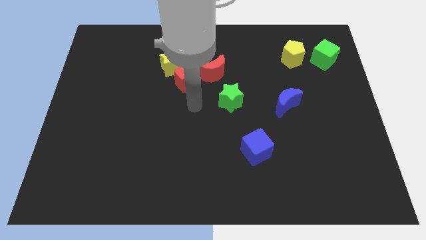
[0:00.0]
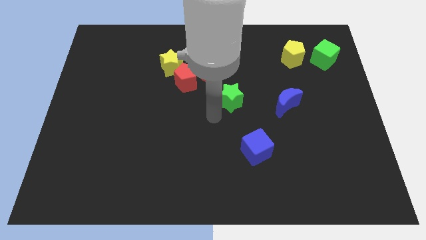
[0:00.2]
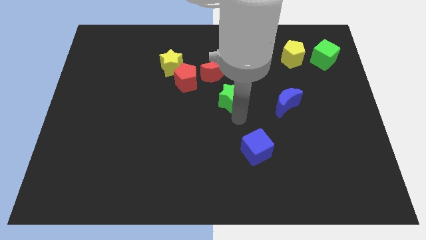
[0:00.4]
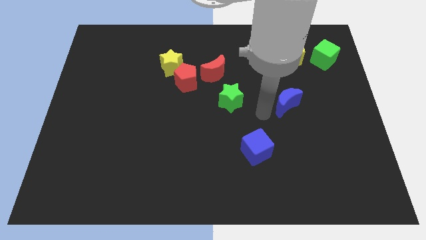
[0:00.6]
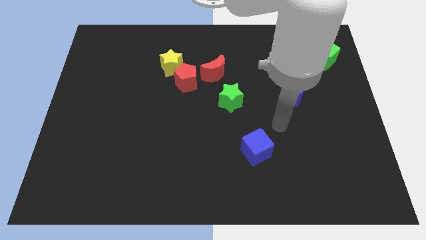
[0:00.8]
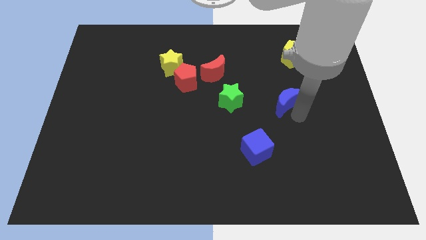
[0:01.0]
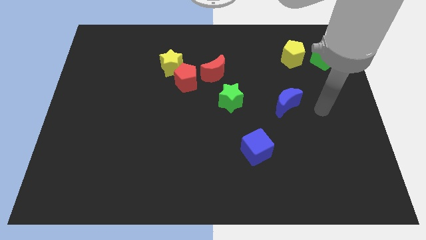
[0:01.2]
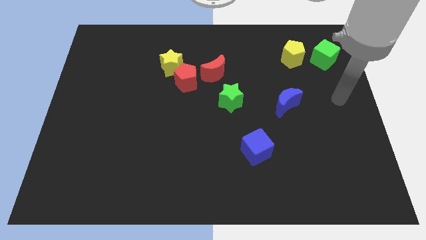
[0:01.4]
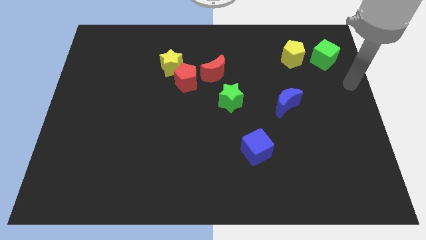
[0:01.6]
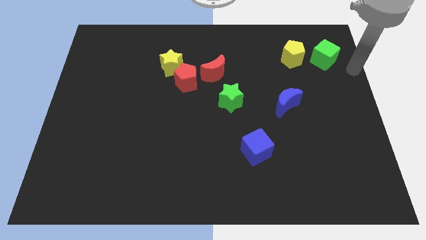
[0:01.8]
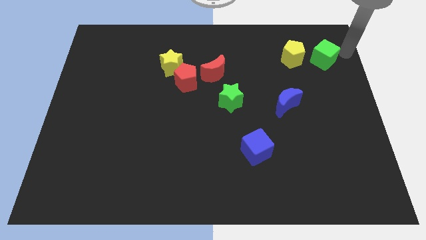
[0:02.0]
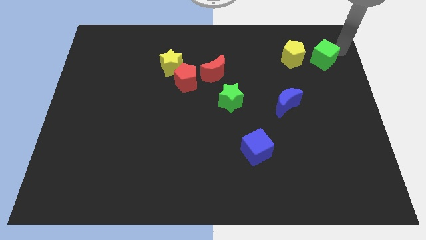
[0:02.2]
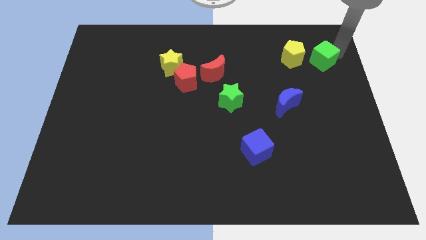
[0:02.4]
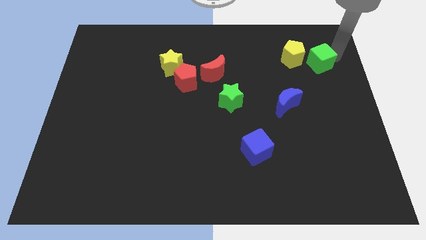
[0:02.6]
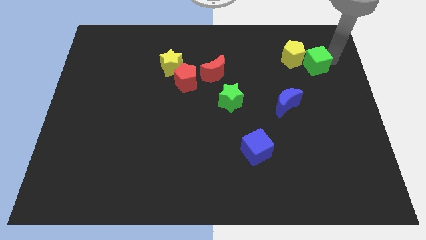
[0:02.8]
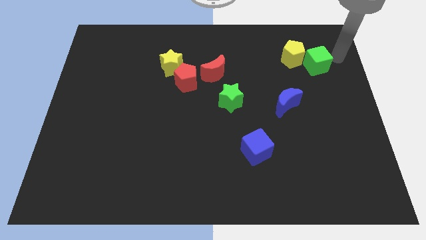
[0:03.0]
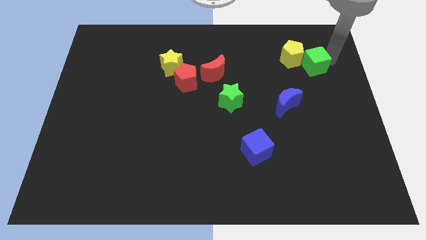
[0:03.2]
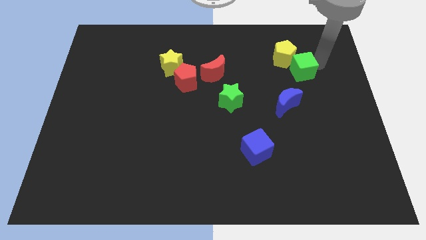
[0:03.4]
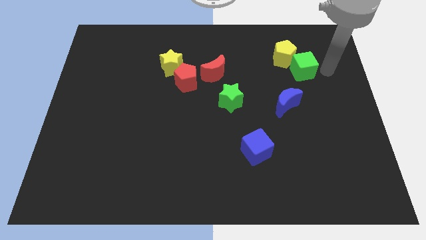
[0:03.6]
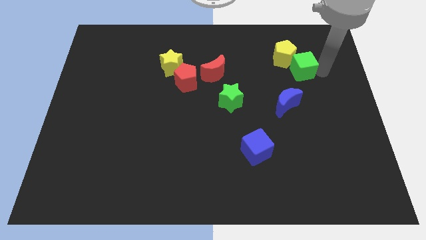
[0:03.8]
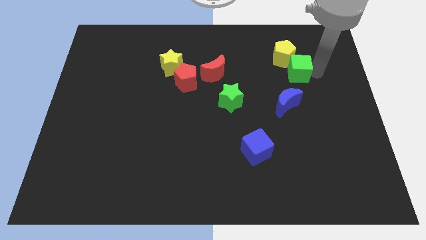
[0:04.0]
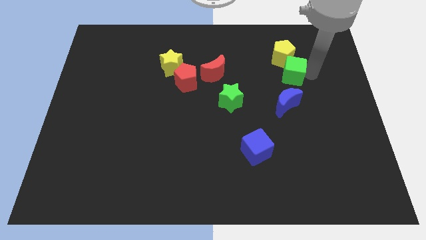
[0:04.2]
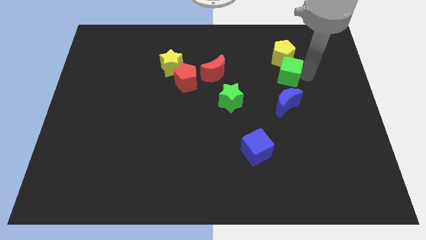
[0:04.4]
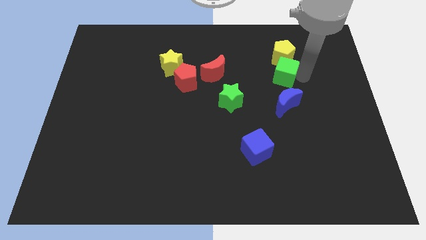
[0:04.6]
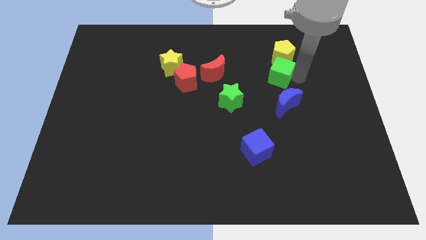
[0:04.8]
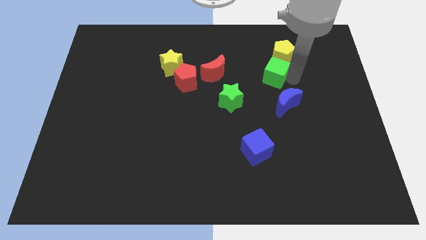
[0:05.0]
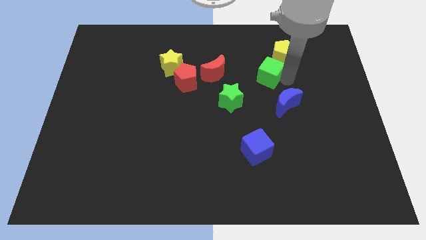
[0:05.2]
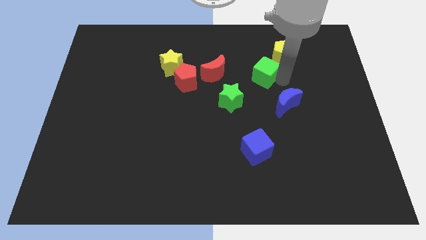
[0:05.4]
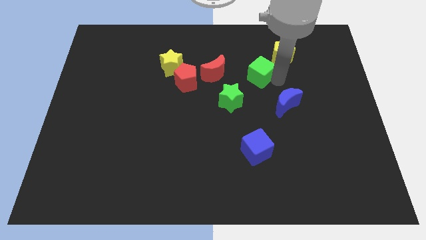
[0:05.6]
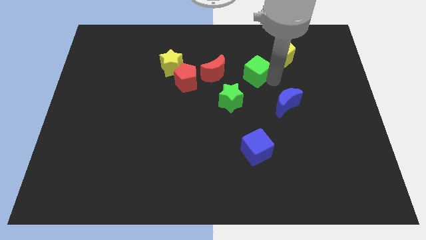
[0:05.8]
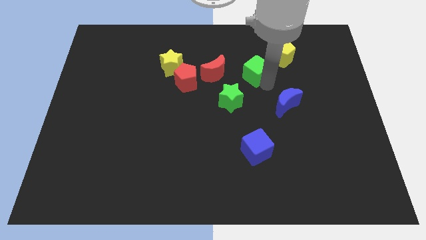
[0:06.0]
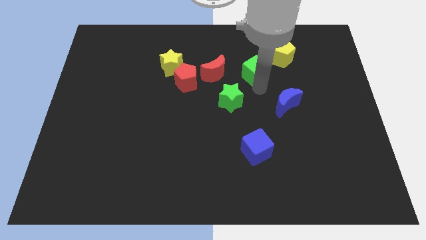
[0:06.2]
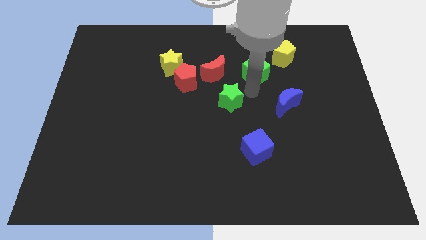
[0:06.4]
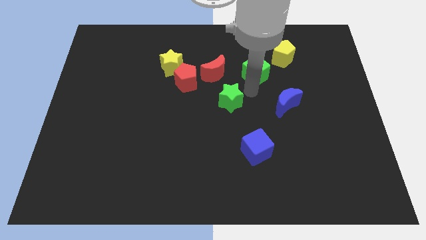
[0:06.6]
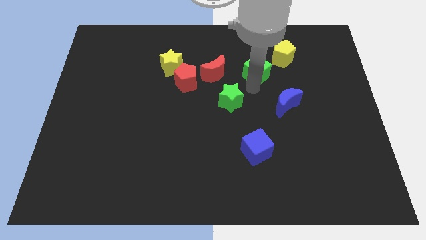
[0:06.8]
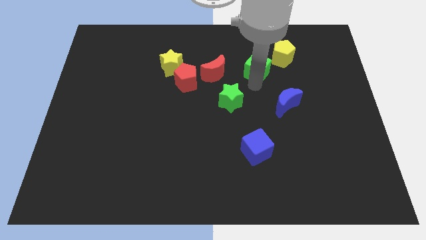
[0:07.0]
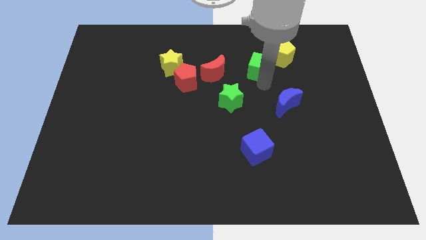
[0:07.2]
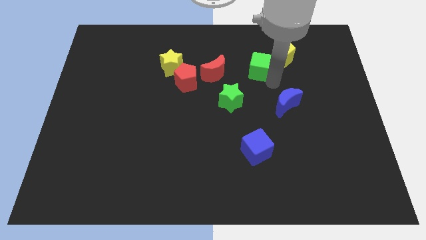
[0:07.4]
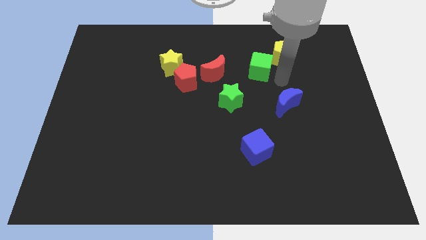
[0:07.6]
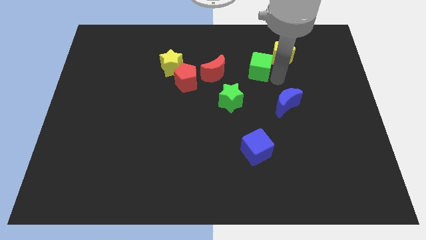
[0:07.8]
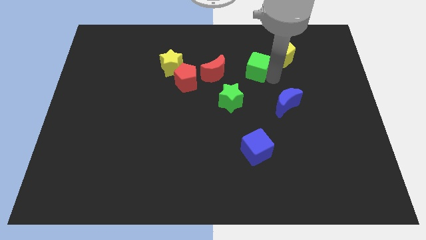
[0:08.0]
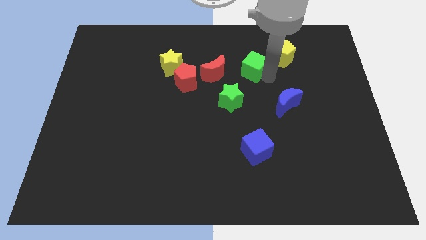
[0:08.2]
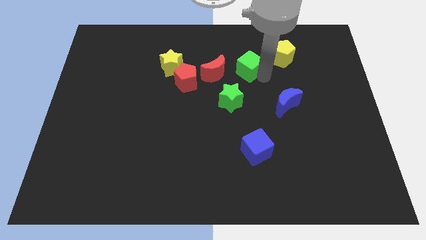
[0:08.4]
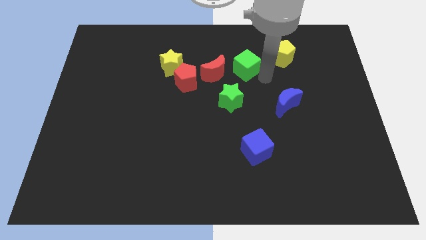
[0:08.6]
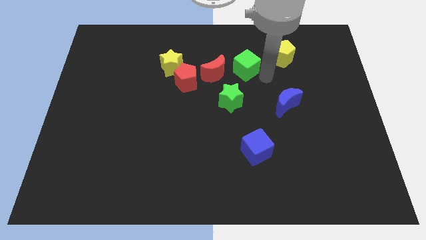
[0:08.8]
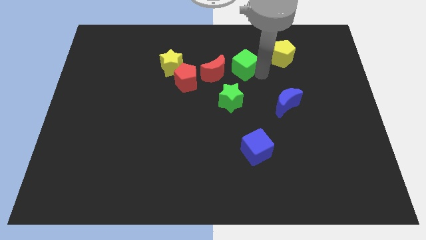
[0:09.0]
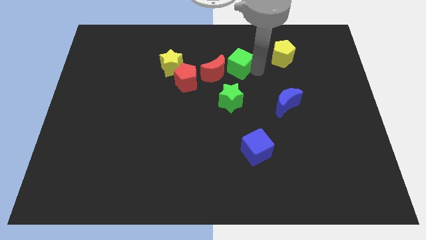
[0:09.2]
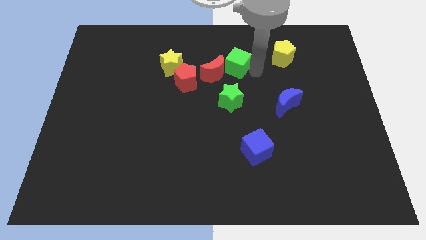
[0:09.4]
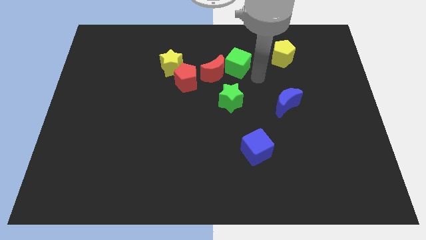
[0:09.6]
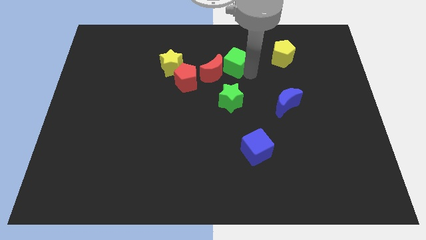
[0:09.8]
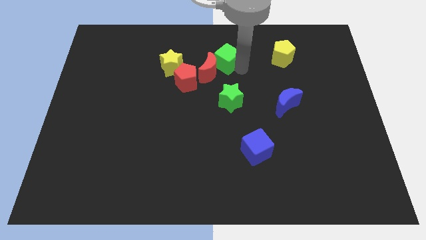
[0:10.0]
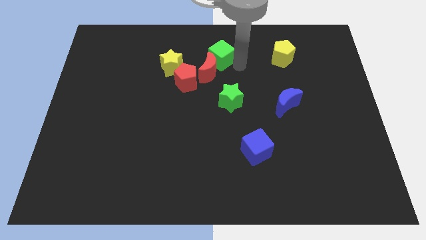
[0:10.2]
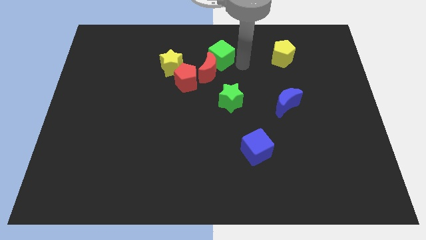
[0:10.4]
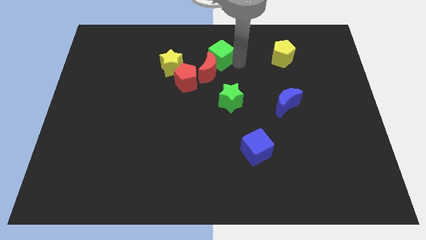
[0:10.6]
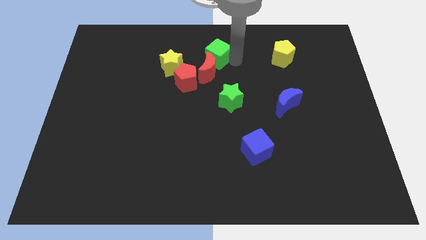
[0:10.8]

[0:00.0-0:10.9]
move the green cube to the top side
